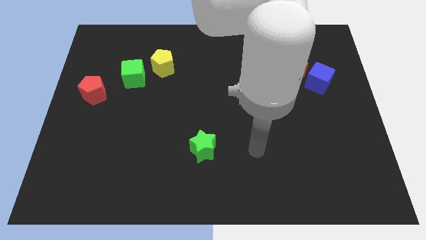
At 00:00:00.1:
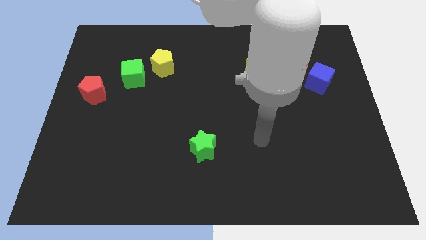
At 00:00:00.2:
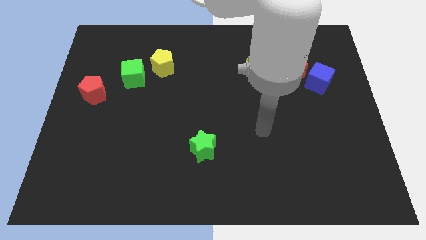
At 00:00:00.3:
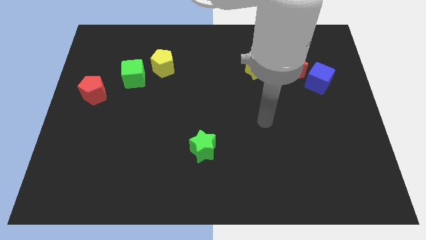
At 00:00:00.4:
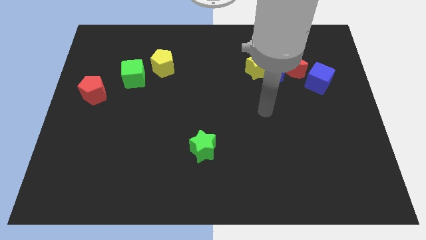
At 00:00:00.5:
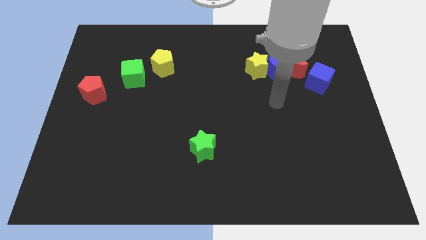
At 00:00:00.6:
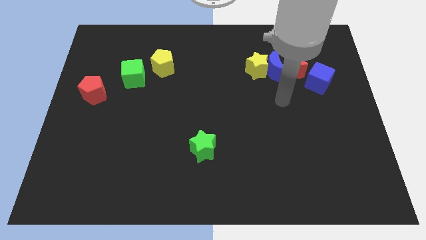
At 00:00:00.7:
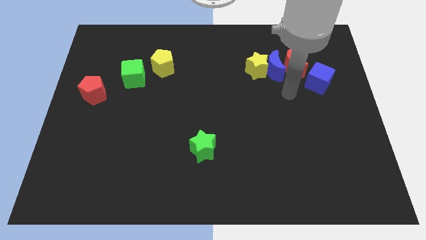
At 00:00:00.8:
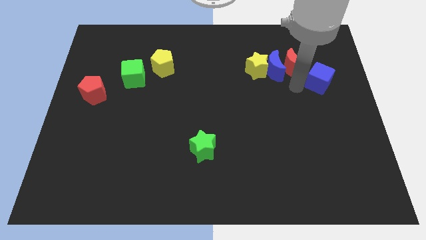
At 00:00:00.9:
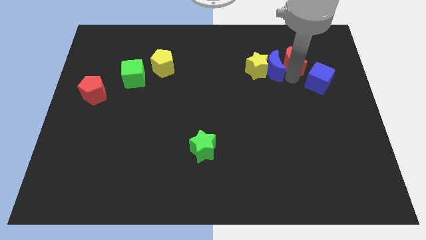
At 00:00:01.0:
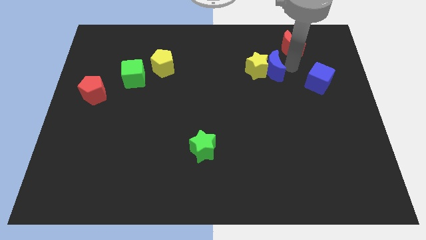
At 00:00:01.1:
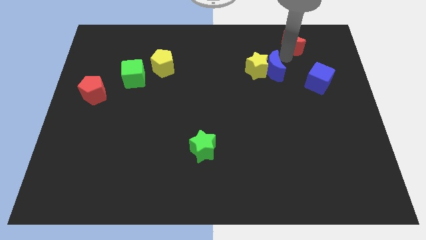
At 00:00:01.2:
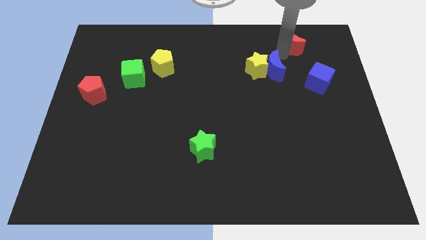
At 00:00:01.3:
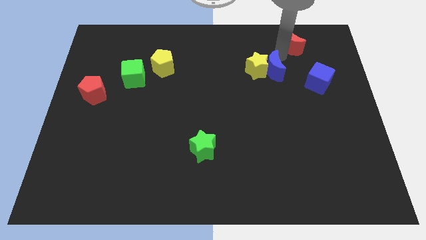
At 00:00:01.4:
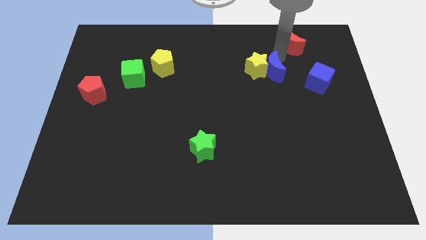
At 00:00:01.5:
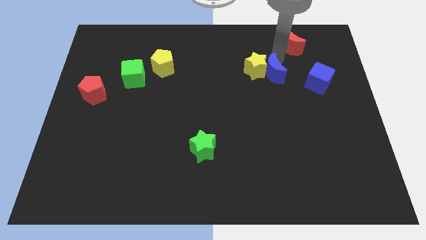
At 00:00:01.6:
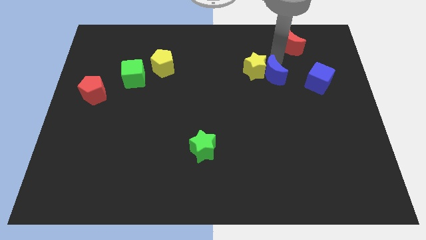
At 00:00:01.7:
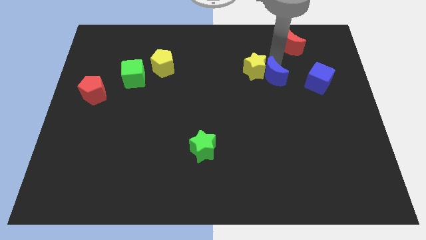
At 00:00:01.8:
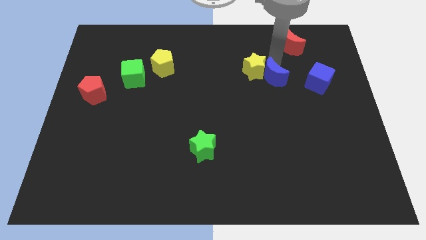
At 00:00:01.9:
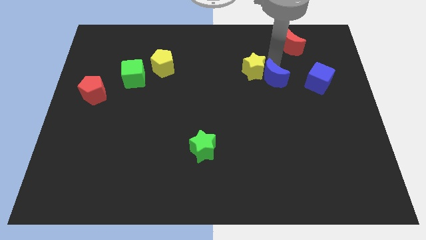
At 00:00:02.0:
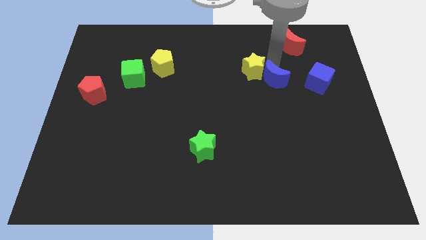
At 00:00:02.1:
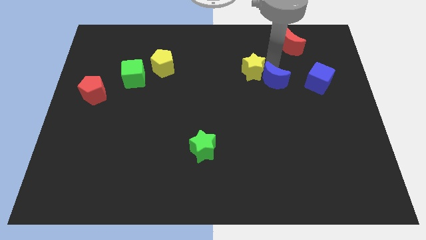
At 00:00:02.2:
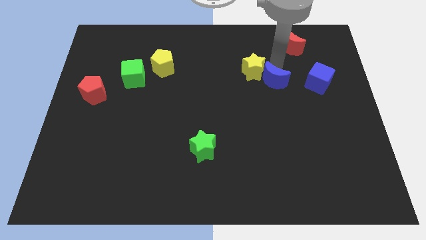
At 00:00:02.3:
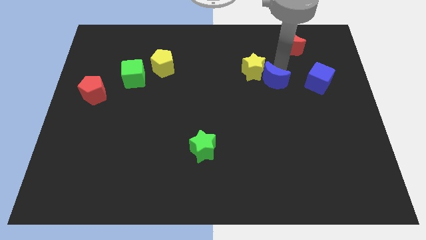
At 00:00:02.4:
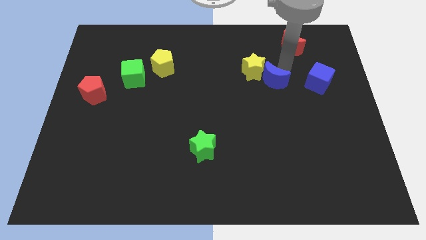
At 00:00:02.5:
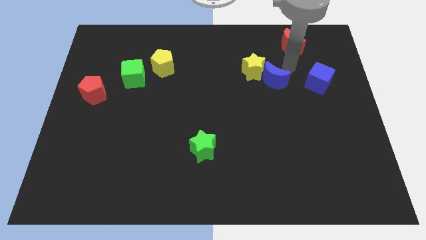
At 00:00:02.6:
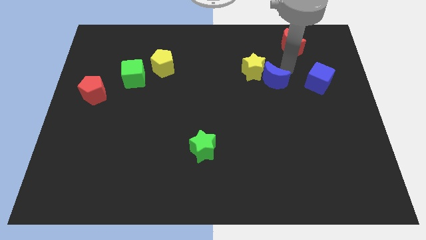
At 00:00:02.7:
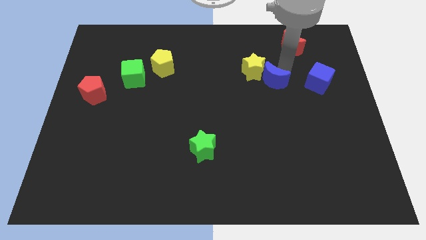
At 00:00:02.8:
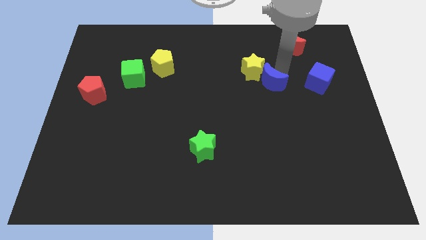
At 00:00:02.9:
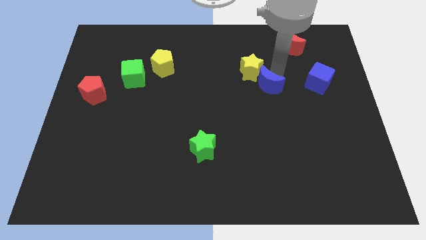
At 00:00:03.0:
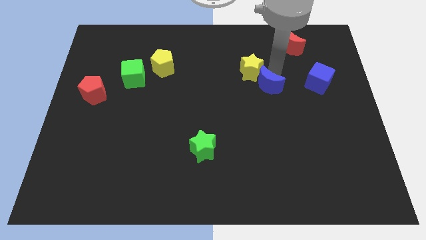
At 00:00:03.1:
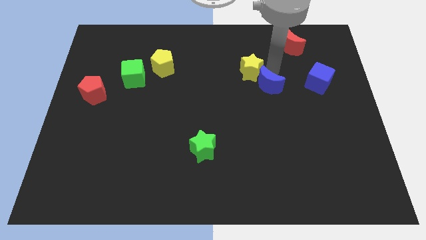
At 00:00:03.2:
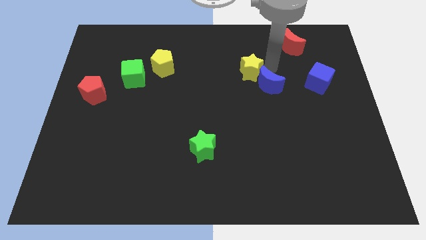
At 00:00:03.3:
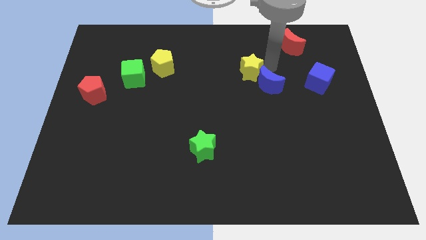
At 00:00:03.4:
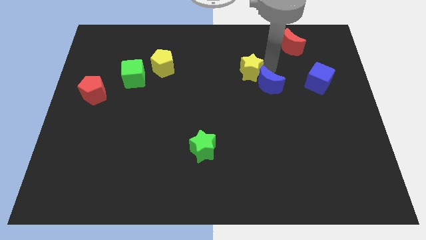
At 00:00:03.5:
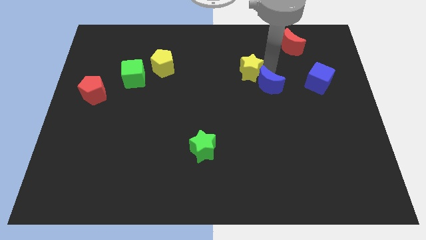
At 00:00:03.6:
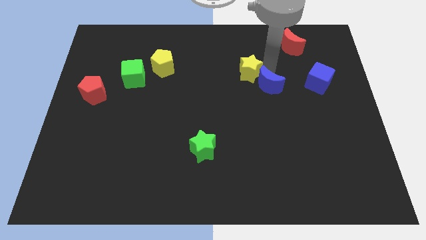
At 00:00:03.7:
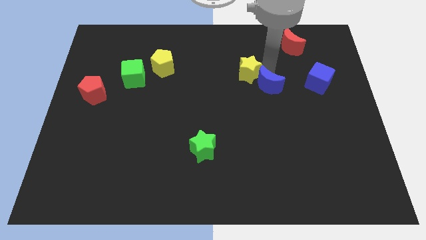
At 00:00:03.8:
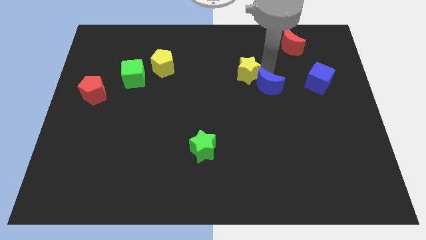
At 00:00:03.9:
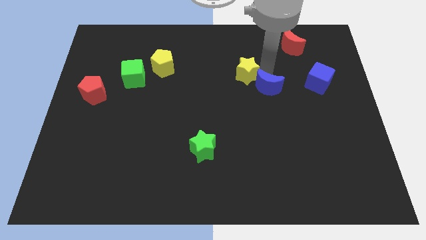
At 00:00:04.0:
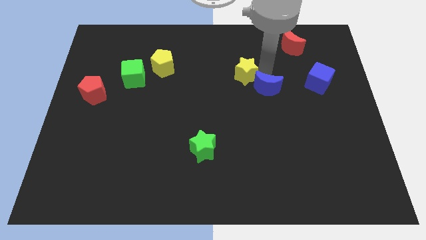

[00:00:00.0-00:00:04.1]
pull the blue moon apart from the yellow star and red moon

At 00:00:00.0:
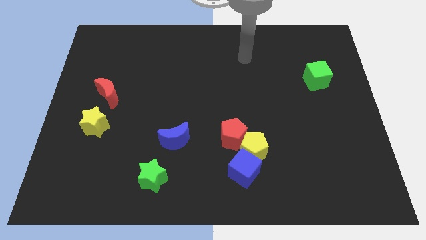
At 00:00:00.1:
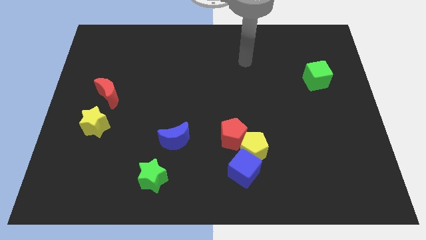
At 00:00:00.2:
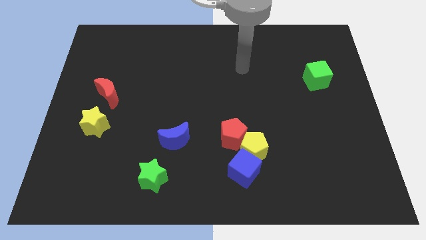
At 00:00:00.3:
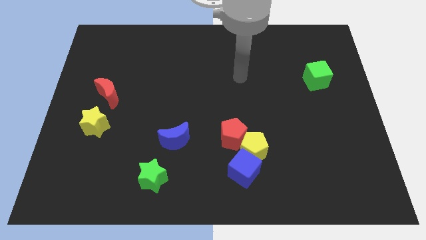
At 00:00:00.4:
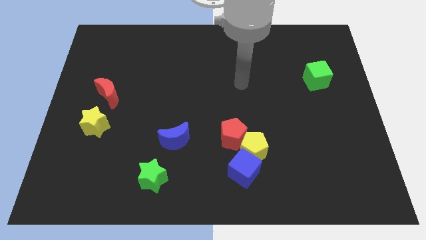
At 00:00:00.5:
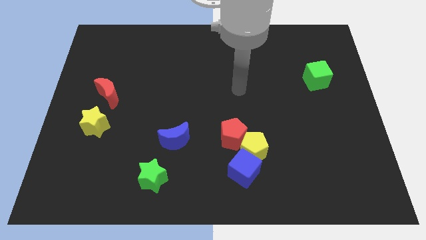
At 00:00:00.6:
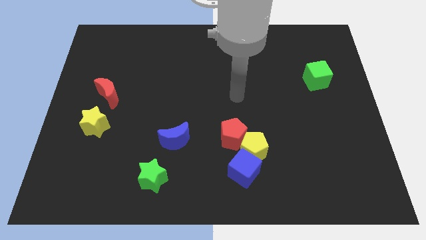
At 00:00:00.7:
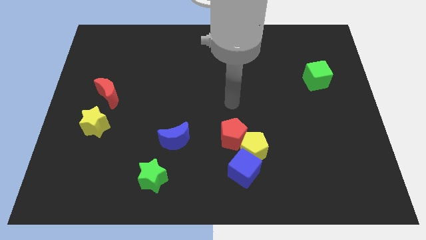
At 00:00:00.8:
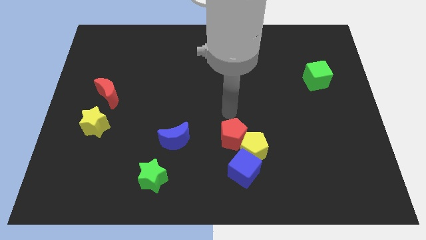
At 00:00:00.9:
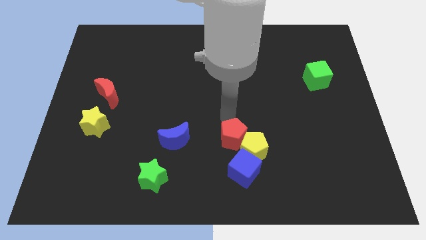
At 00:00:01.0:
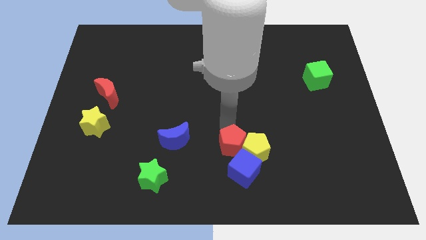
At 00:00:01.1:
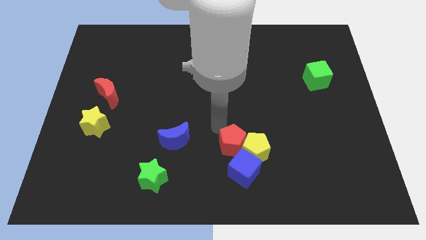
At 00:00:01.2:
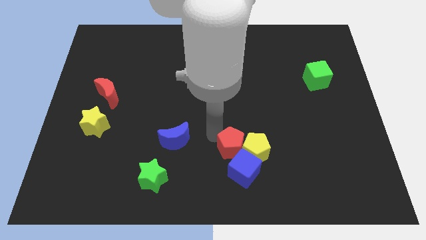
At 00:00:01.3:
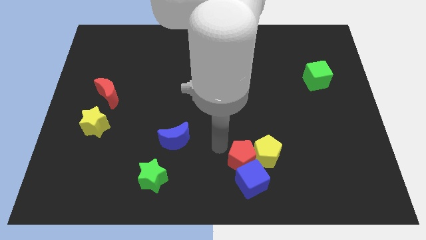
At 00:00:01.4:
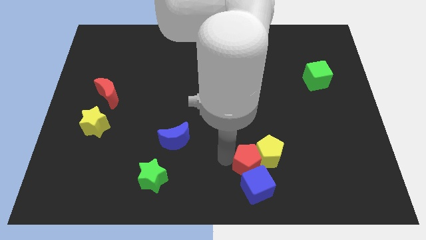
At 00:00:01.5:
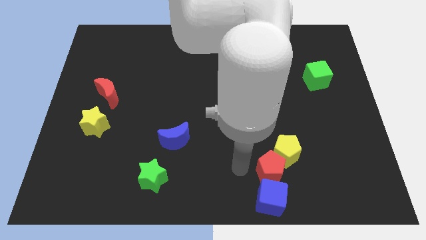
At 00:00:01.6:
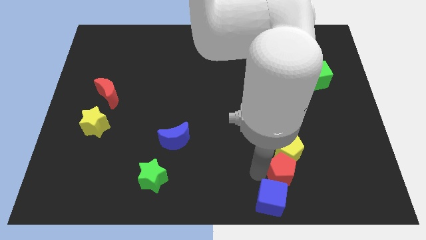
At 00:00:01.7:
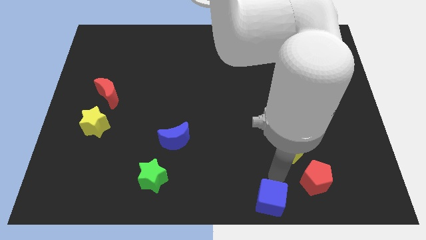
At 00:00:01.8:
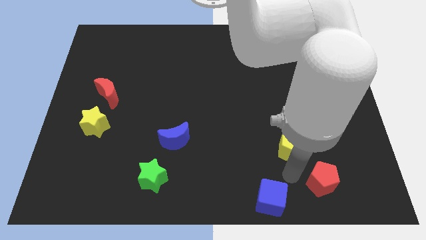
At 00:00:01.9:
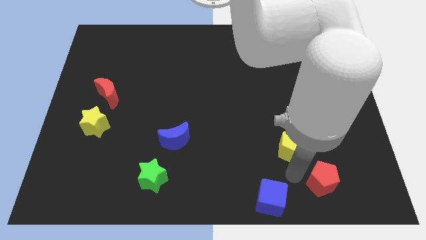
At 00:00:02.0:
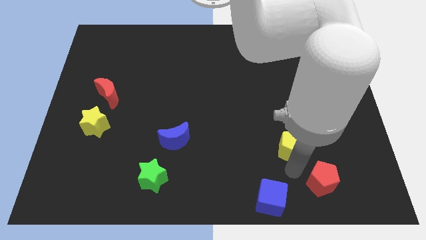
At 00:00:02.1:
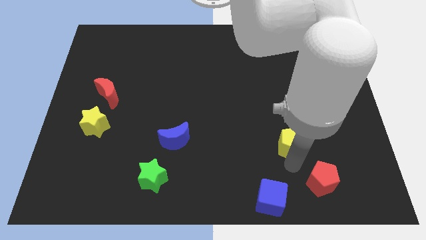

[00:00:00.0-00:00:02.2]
pull the yellow pentagon apart from the red pentagon and blue cube

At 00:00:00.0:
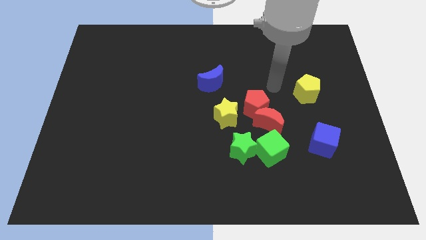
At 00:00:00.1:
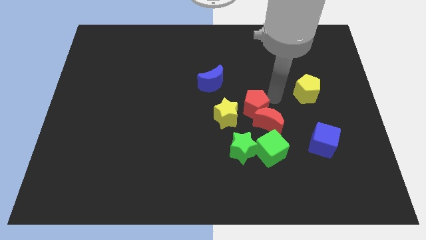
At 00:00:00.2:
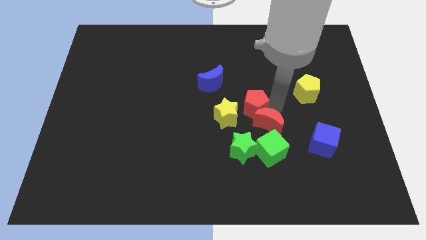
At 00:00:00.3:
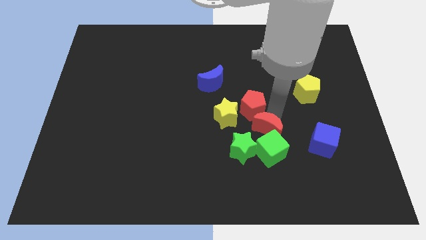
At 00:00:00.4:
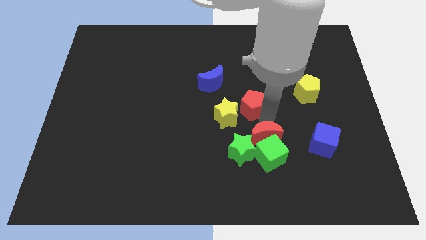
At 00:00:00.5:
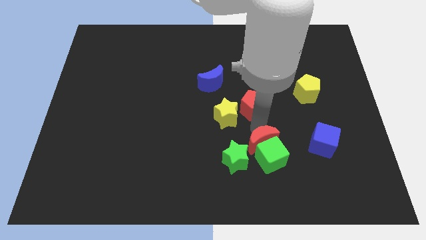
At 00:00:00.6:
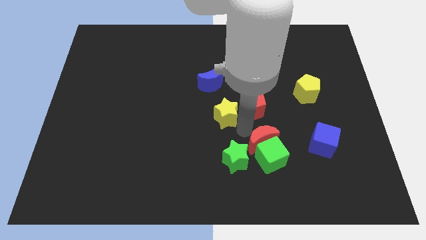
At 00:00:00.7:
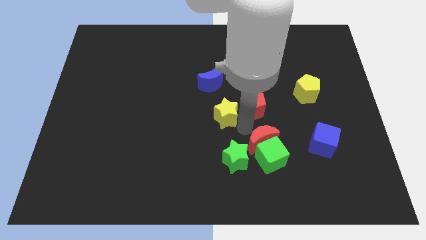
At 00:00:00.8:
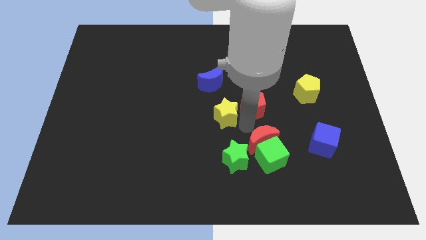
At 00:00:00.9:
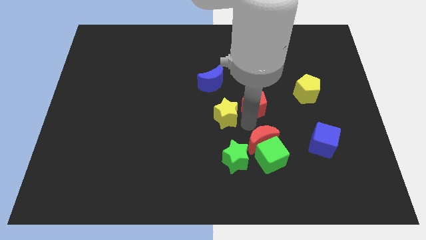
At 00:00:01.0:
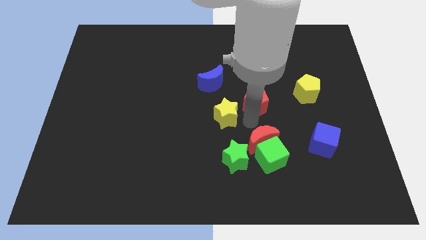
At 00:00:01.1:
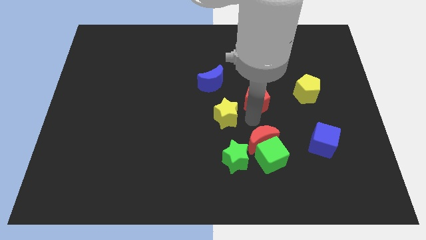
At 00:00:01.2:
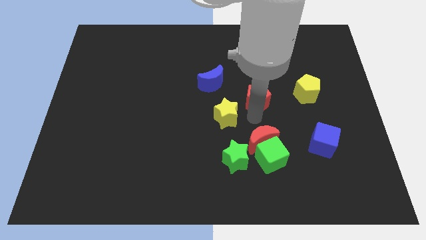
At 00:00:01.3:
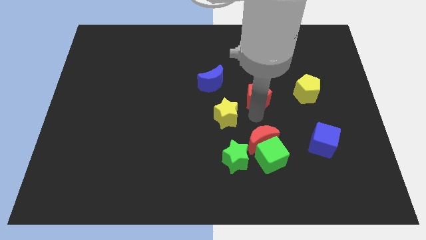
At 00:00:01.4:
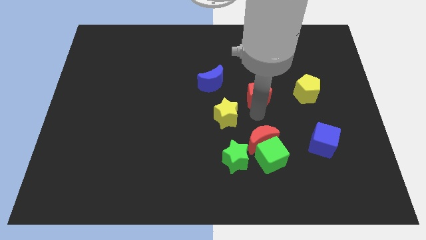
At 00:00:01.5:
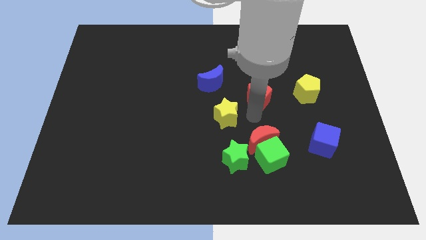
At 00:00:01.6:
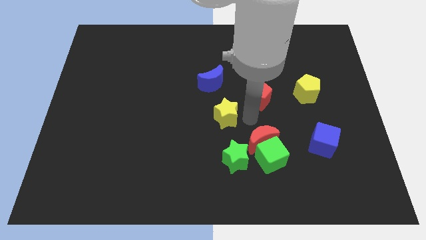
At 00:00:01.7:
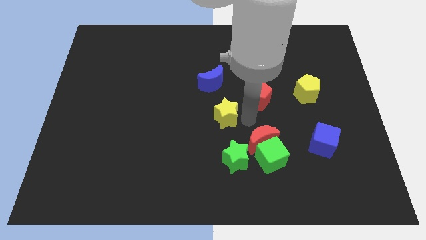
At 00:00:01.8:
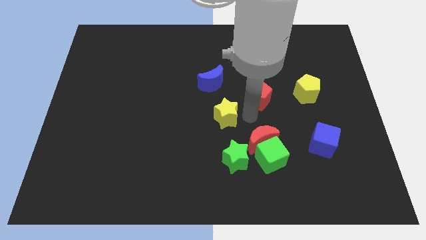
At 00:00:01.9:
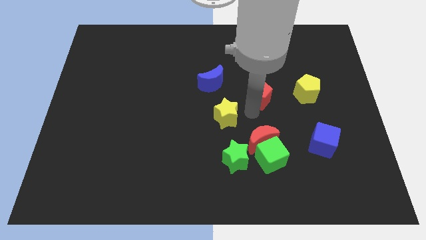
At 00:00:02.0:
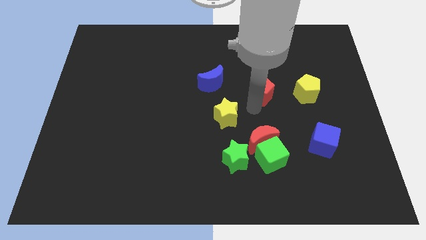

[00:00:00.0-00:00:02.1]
pull the red pentagon apart from the red moon and yellow star

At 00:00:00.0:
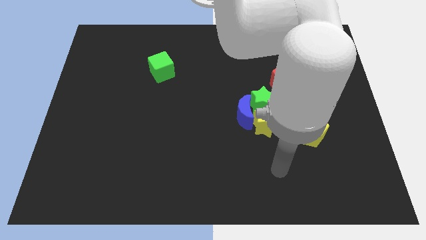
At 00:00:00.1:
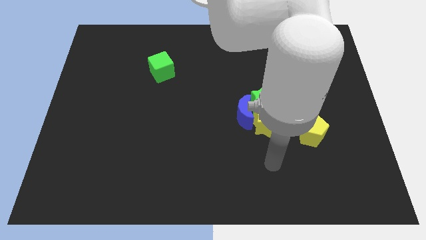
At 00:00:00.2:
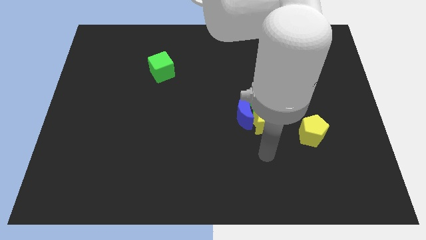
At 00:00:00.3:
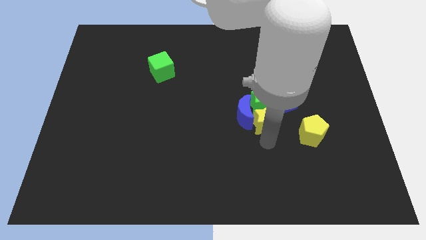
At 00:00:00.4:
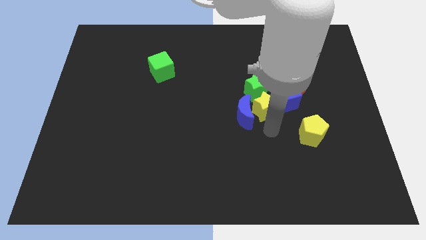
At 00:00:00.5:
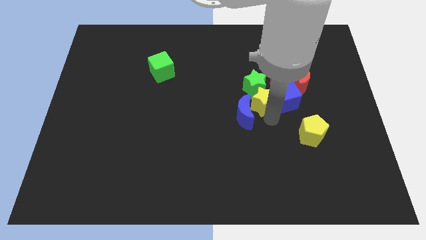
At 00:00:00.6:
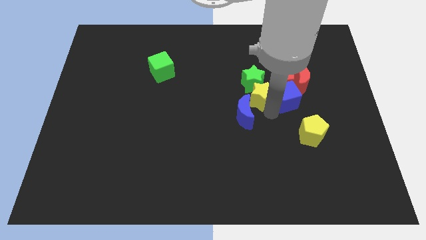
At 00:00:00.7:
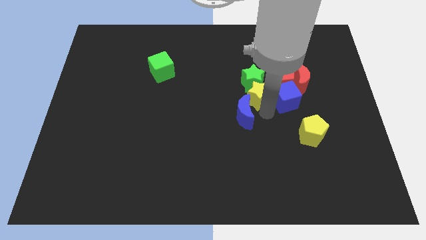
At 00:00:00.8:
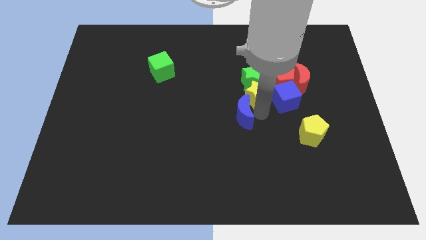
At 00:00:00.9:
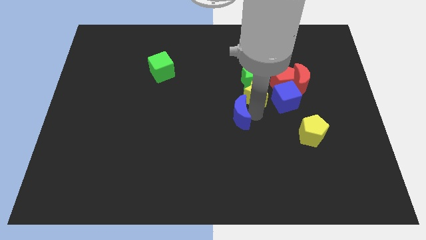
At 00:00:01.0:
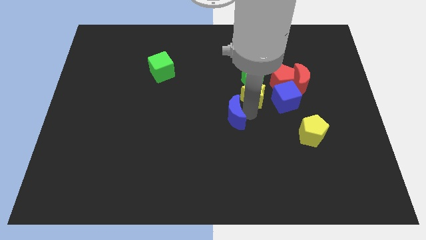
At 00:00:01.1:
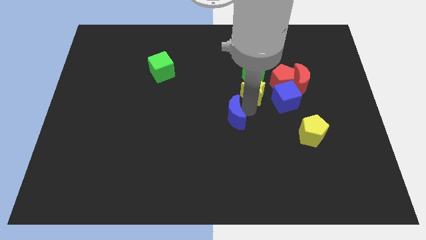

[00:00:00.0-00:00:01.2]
separate the blue moon from the yellow star and green star
